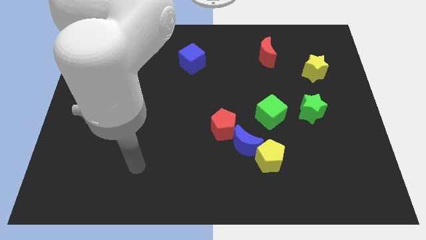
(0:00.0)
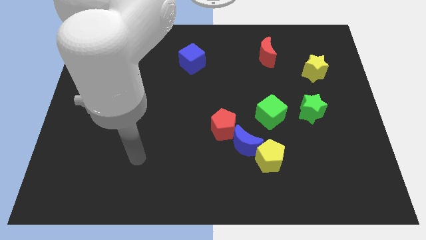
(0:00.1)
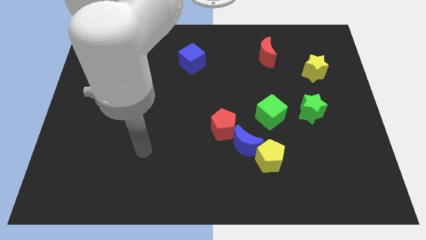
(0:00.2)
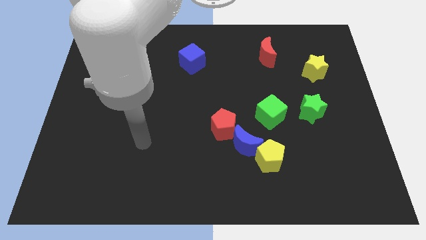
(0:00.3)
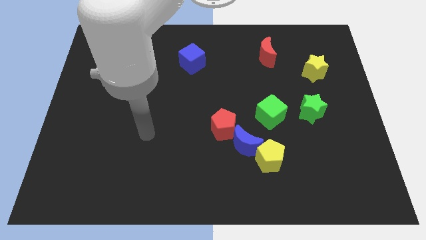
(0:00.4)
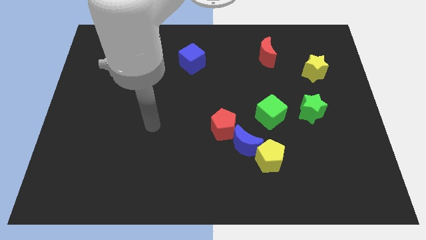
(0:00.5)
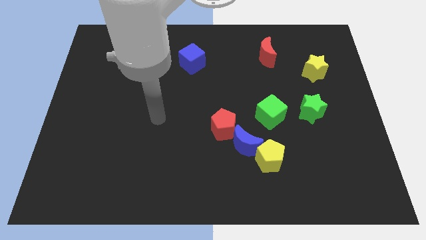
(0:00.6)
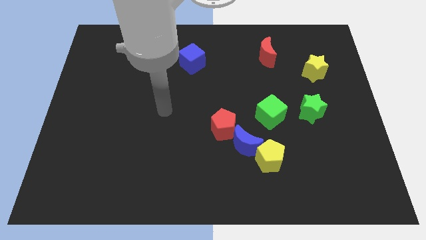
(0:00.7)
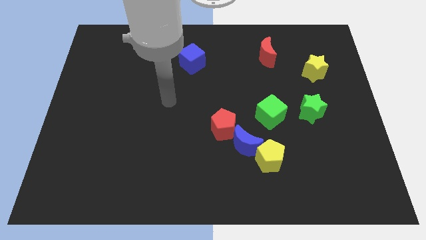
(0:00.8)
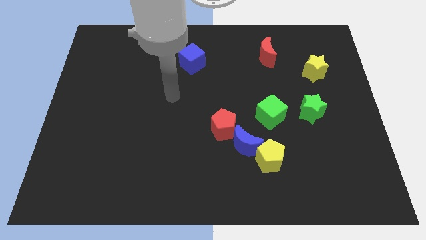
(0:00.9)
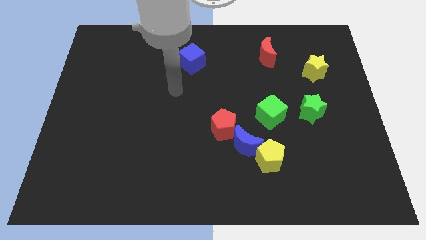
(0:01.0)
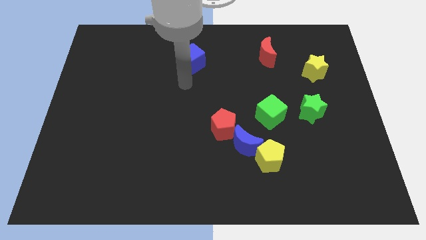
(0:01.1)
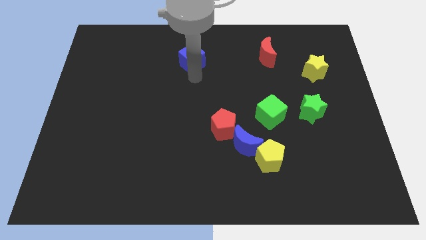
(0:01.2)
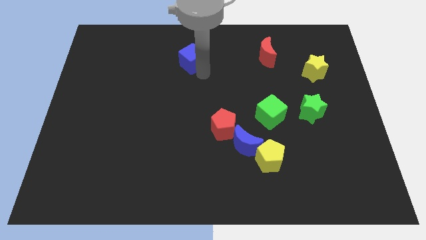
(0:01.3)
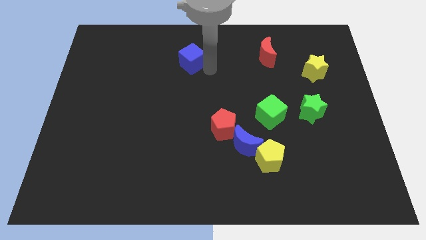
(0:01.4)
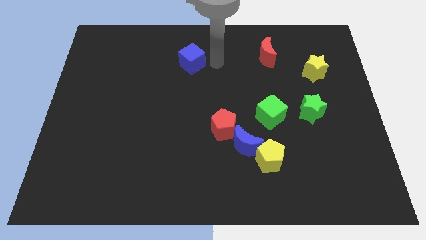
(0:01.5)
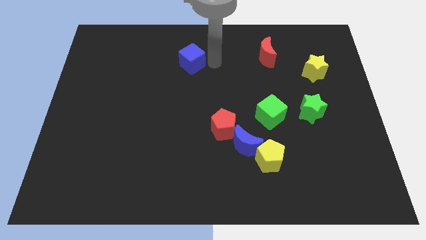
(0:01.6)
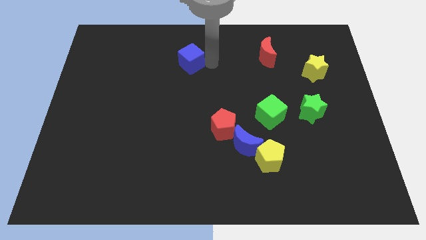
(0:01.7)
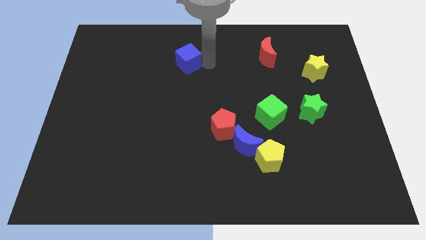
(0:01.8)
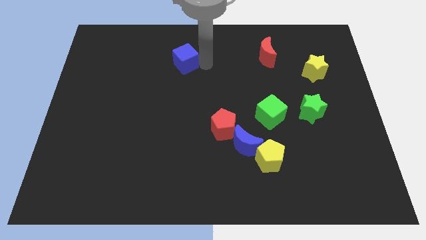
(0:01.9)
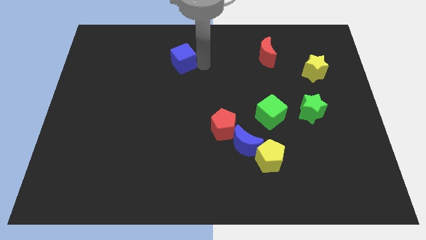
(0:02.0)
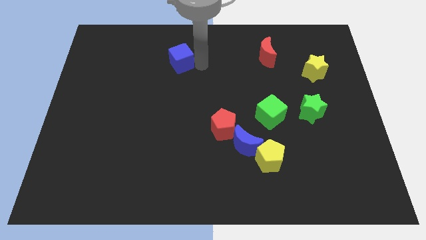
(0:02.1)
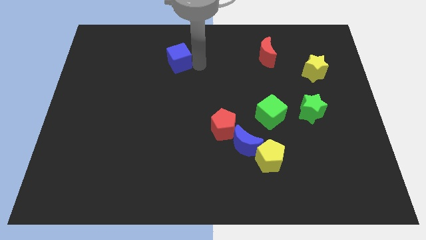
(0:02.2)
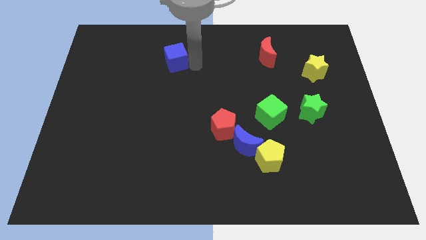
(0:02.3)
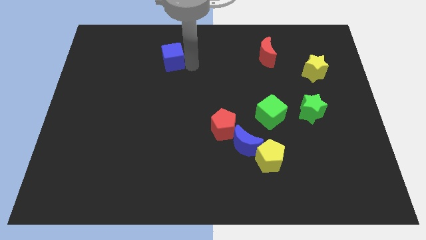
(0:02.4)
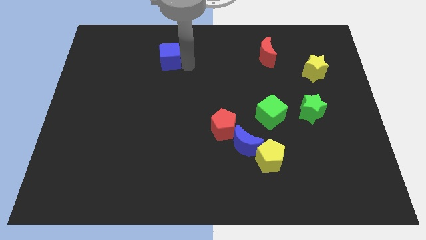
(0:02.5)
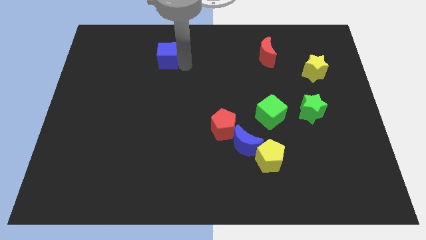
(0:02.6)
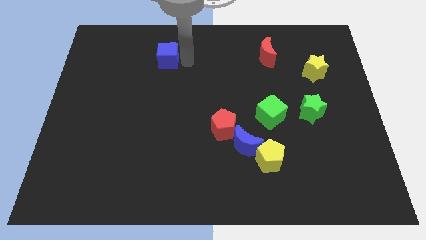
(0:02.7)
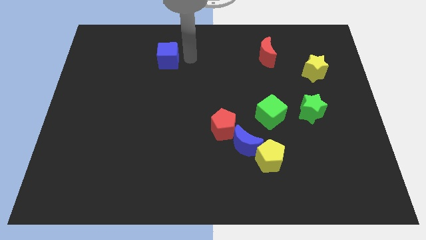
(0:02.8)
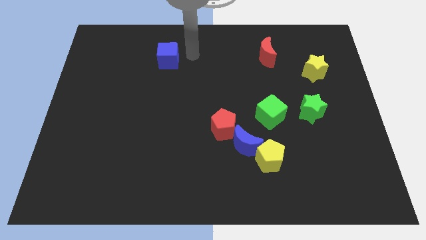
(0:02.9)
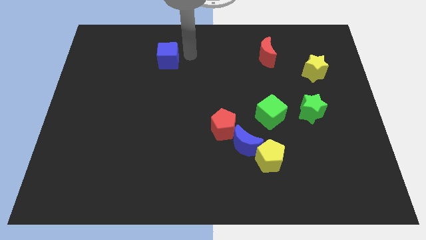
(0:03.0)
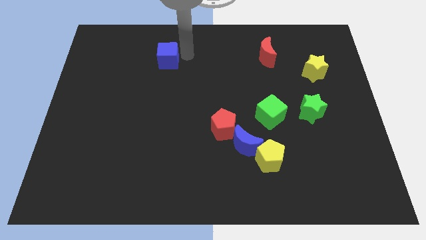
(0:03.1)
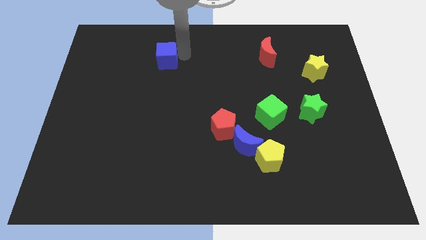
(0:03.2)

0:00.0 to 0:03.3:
push the blue cube a little bit left

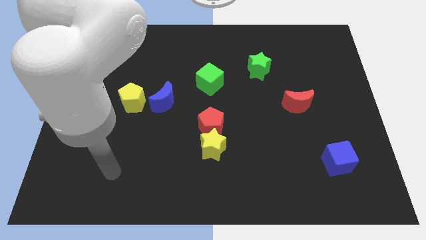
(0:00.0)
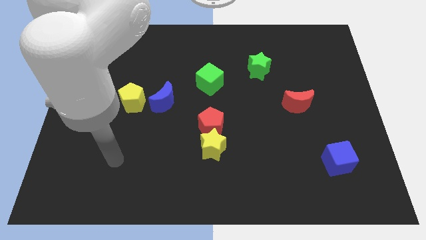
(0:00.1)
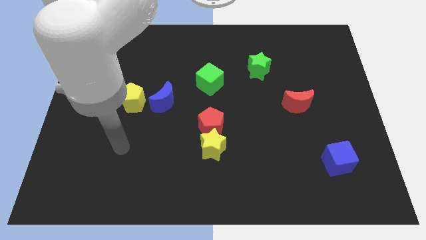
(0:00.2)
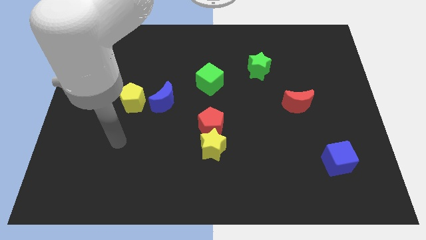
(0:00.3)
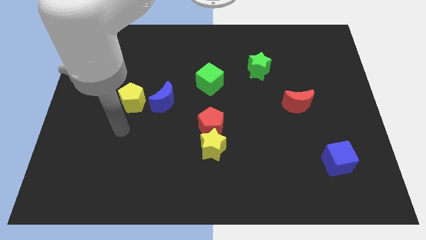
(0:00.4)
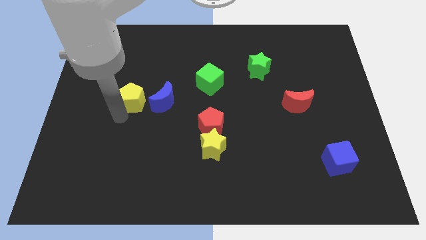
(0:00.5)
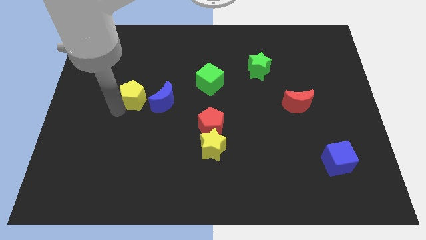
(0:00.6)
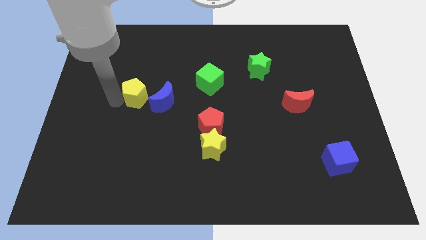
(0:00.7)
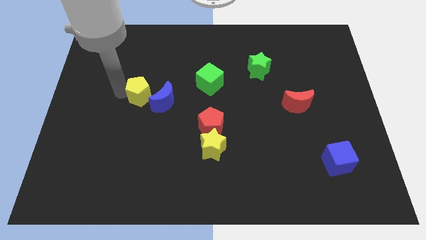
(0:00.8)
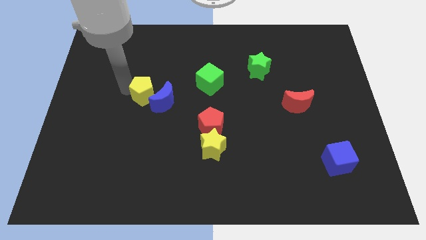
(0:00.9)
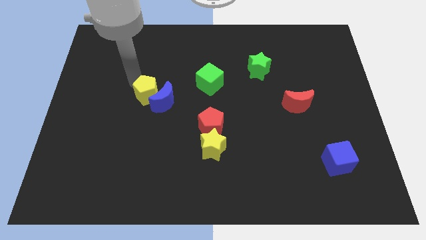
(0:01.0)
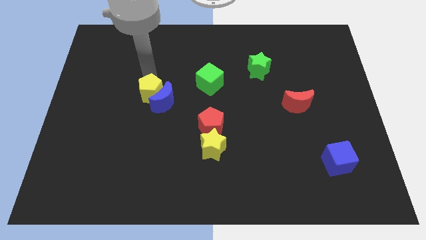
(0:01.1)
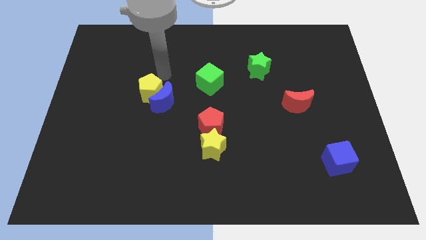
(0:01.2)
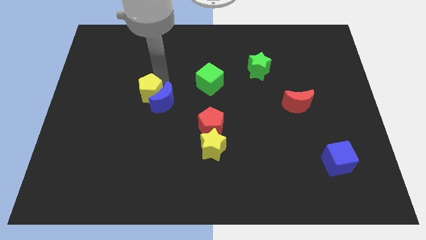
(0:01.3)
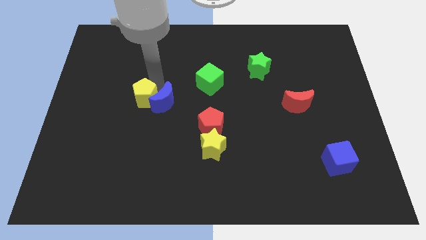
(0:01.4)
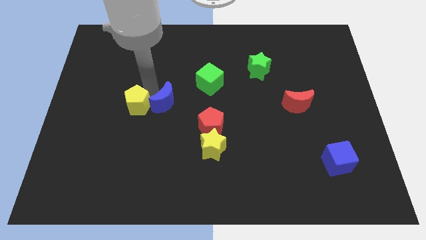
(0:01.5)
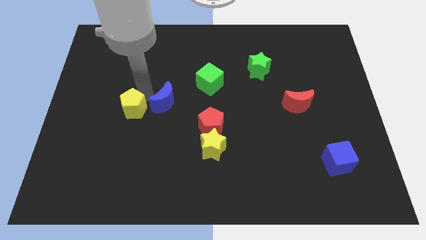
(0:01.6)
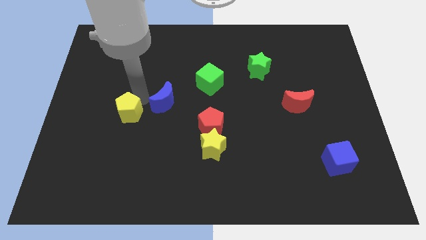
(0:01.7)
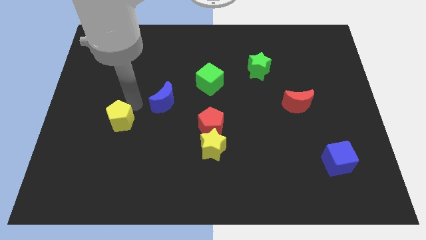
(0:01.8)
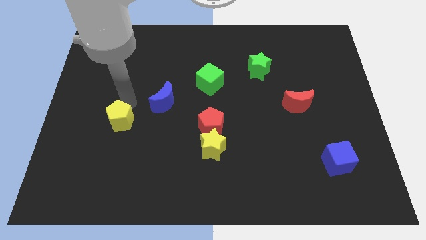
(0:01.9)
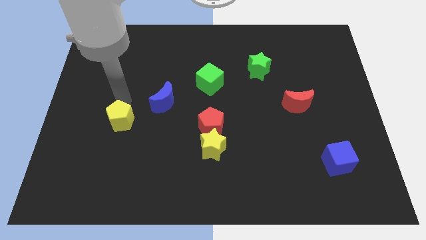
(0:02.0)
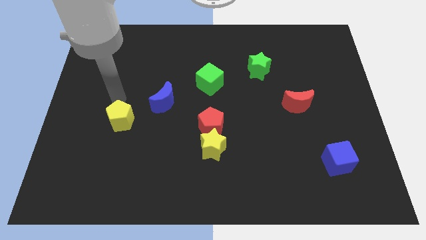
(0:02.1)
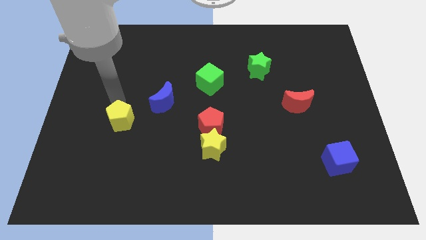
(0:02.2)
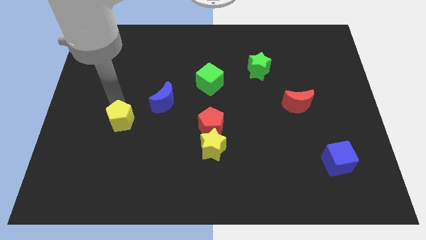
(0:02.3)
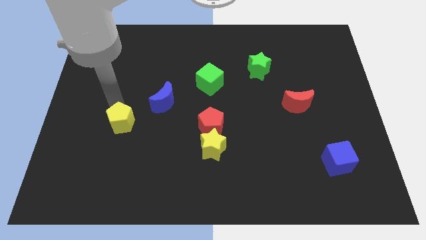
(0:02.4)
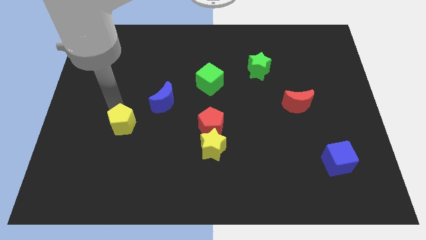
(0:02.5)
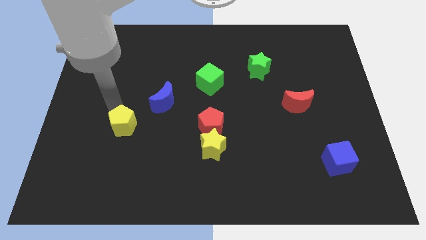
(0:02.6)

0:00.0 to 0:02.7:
move the yellow pentagon downwards a bit

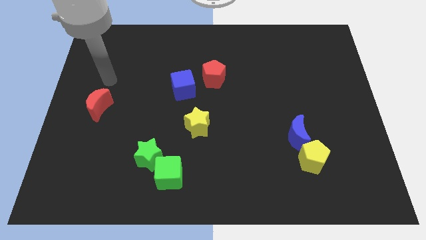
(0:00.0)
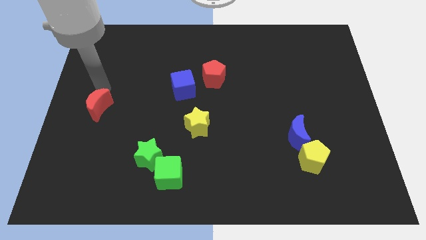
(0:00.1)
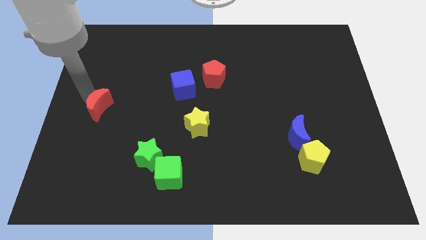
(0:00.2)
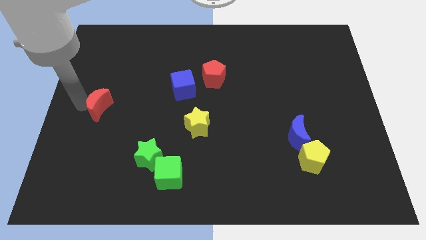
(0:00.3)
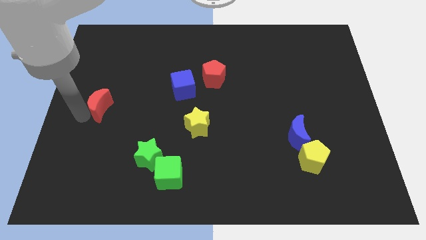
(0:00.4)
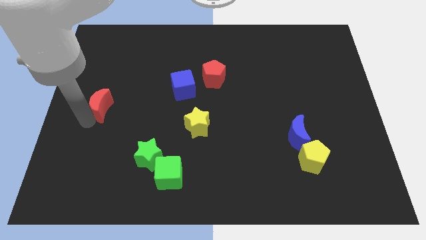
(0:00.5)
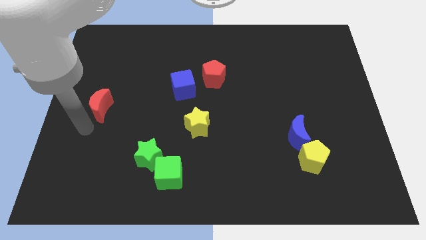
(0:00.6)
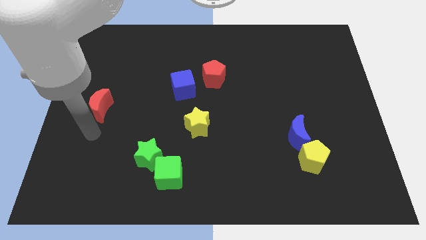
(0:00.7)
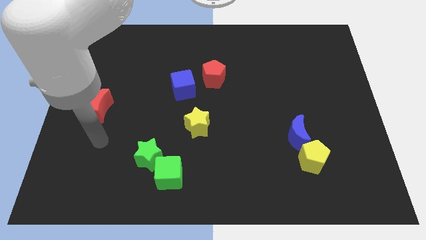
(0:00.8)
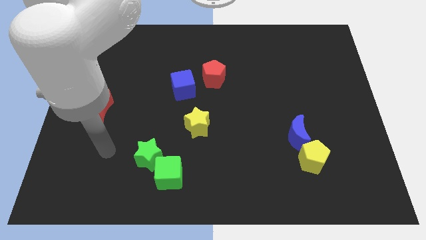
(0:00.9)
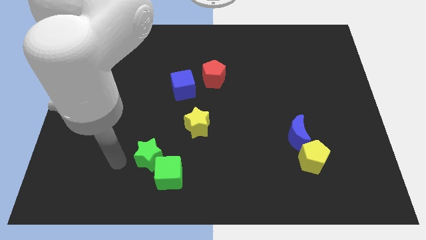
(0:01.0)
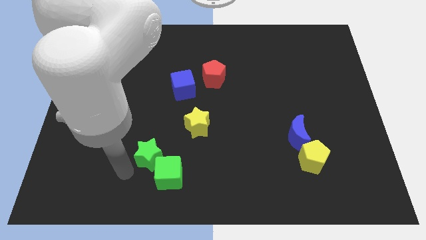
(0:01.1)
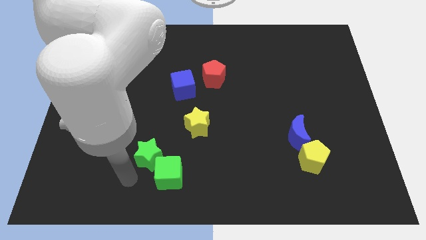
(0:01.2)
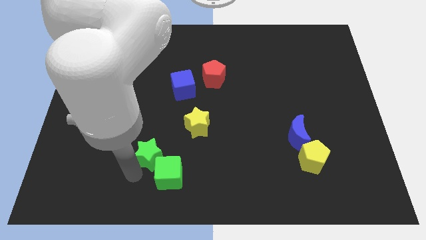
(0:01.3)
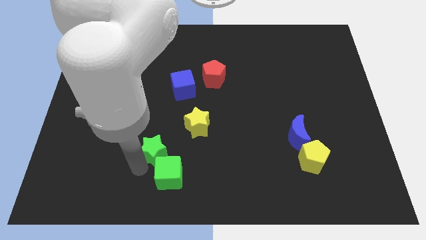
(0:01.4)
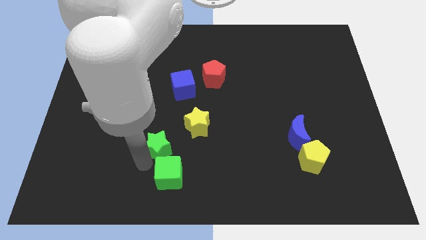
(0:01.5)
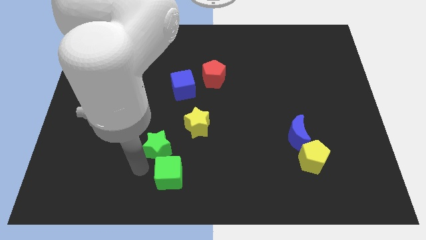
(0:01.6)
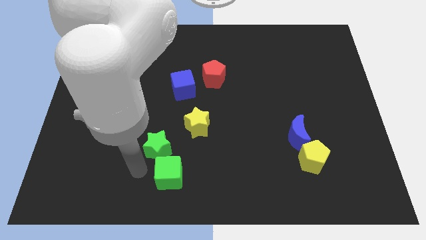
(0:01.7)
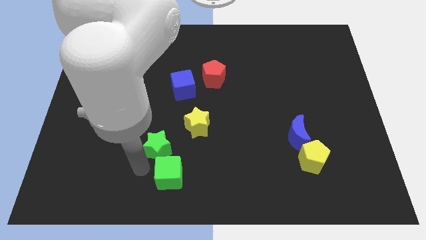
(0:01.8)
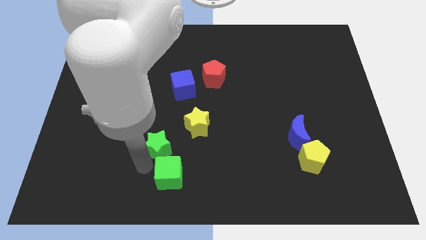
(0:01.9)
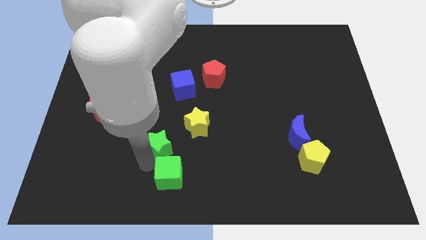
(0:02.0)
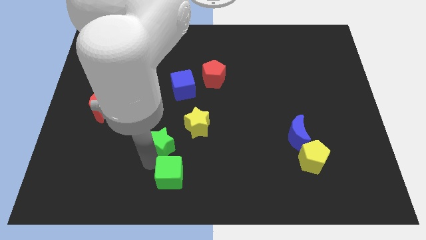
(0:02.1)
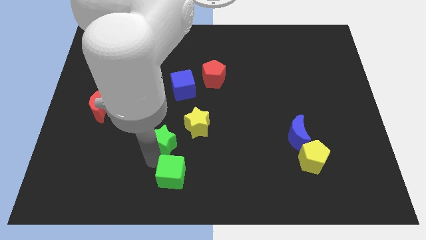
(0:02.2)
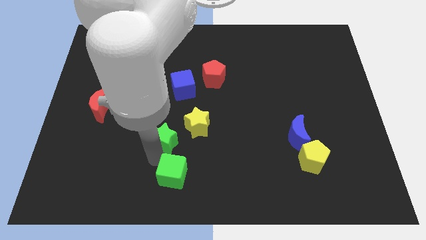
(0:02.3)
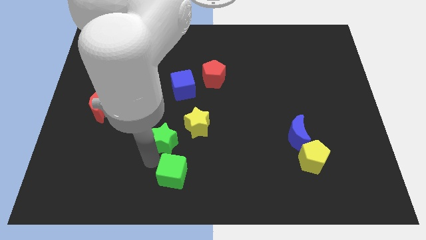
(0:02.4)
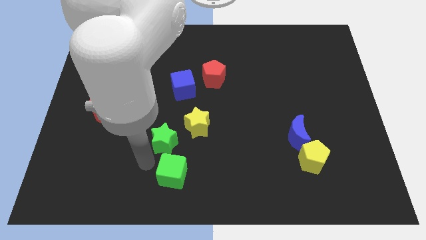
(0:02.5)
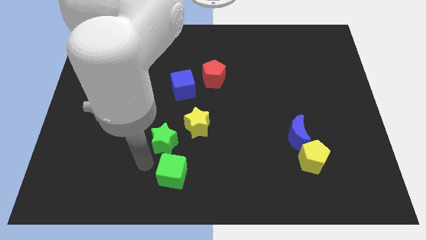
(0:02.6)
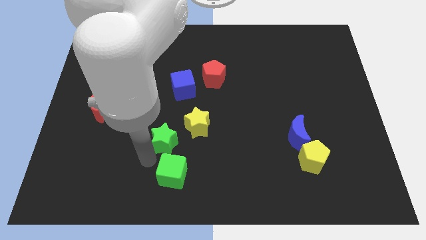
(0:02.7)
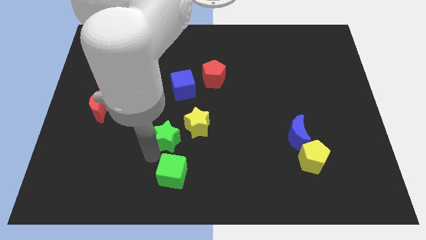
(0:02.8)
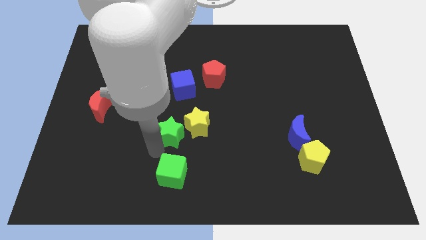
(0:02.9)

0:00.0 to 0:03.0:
slightly slide the green star upwards and to the right diagonally
